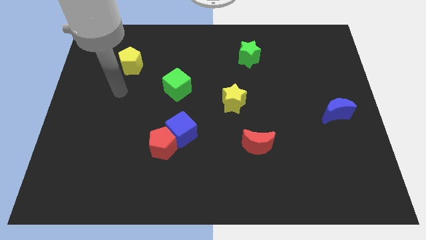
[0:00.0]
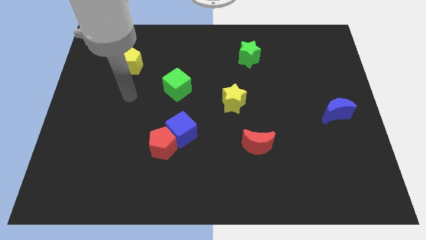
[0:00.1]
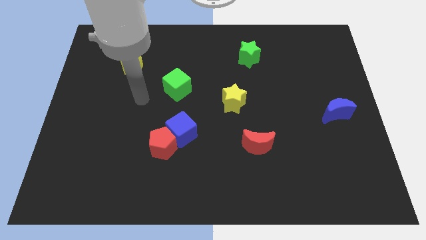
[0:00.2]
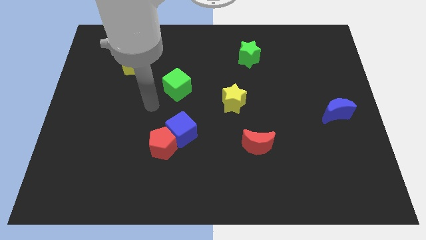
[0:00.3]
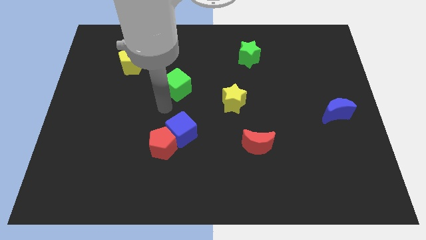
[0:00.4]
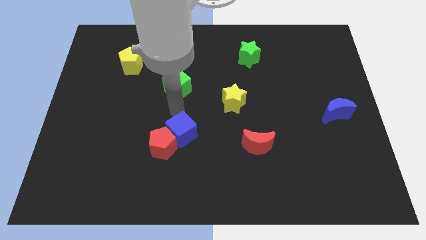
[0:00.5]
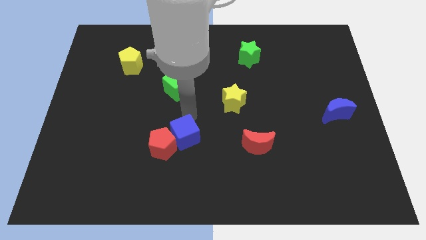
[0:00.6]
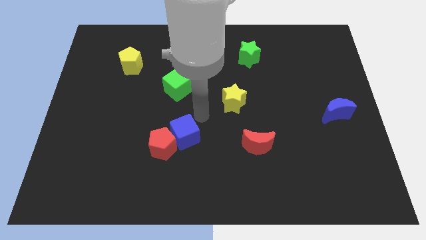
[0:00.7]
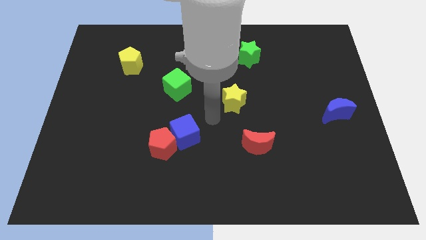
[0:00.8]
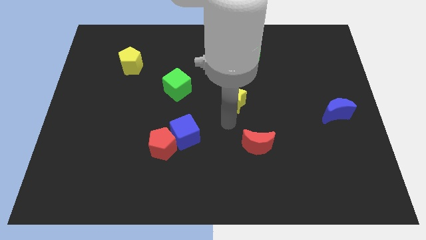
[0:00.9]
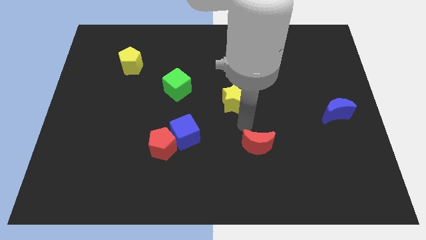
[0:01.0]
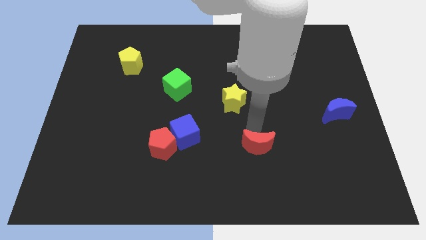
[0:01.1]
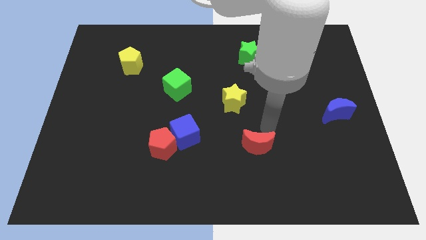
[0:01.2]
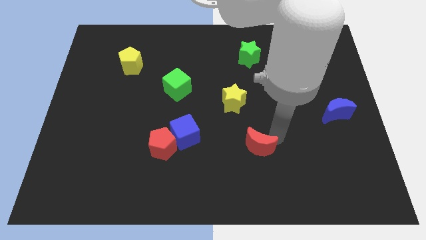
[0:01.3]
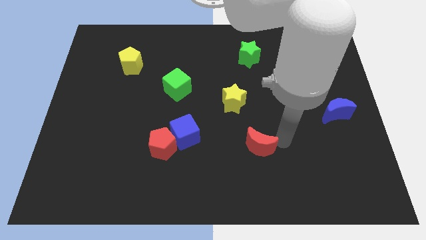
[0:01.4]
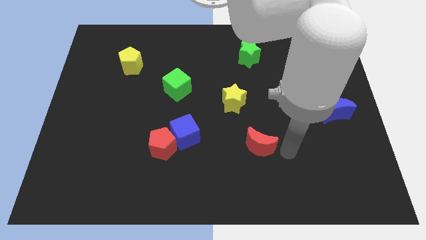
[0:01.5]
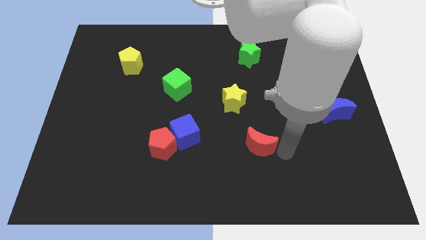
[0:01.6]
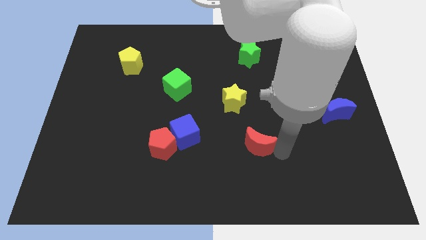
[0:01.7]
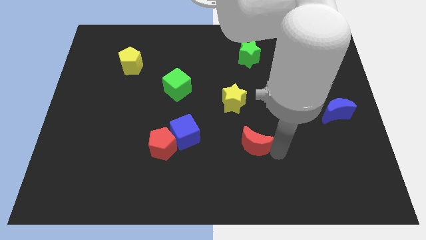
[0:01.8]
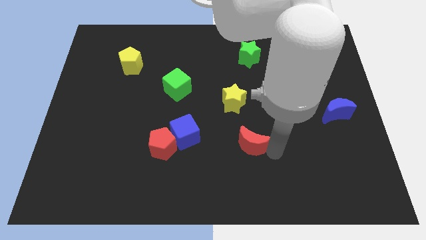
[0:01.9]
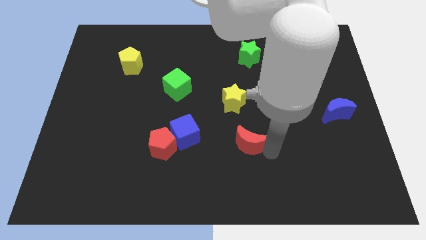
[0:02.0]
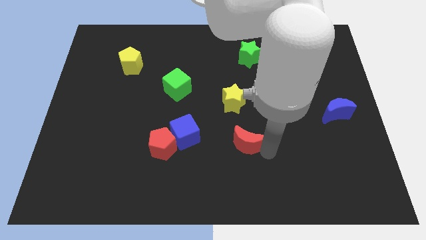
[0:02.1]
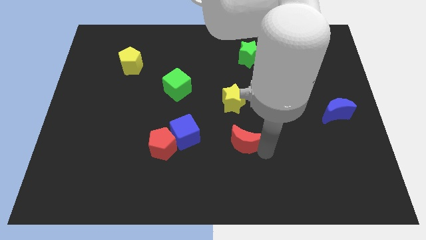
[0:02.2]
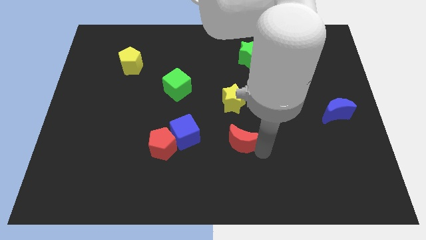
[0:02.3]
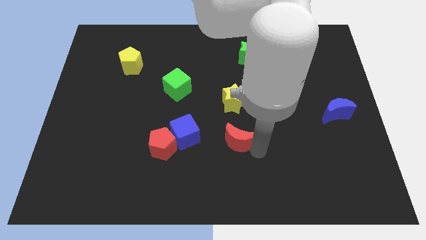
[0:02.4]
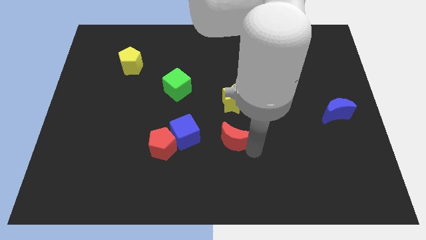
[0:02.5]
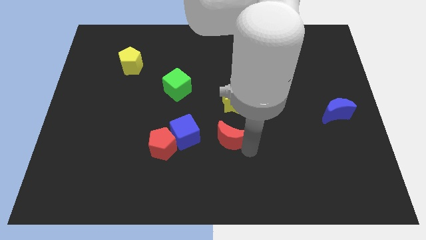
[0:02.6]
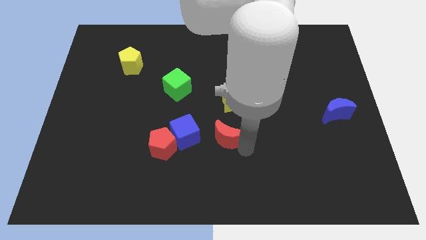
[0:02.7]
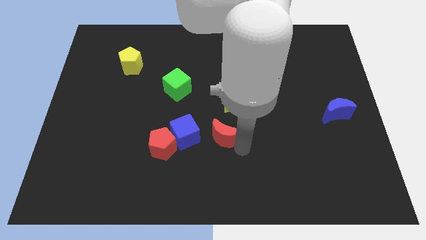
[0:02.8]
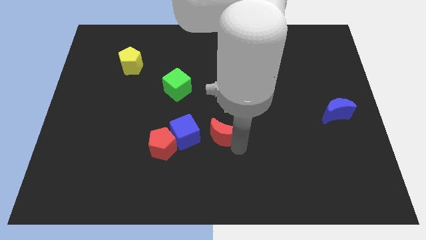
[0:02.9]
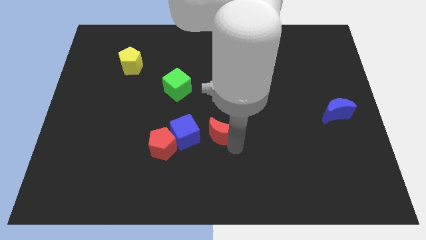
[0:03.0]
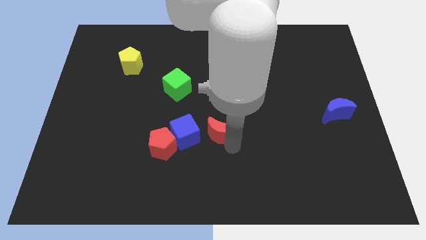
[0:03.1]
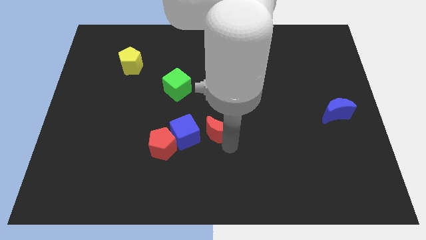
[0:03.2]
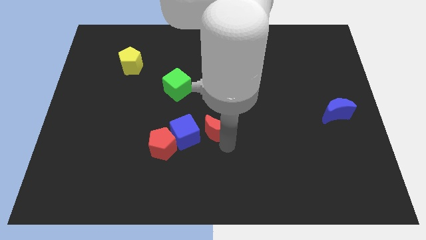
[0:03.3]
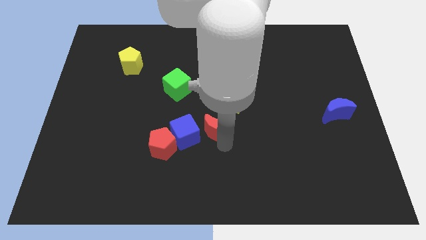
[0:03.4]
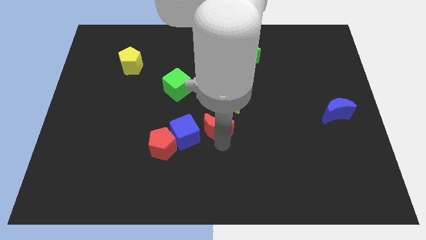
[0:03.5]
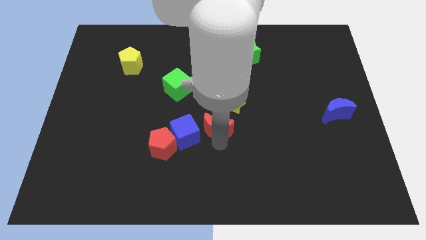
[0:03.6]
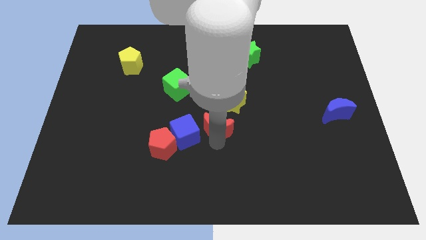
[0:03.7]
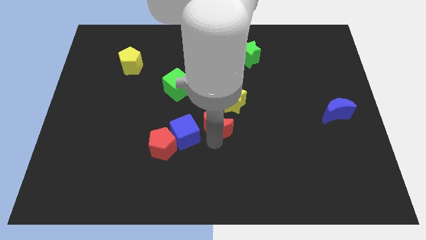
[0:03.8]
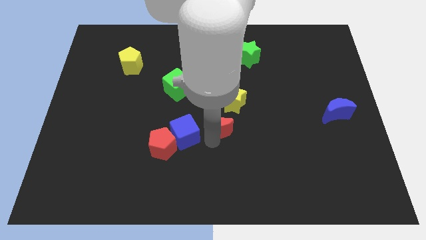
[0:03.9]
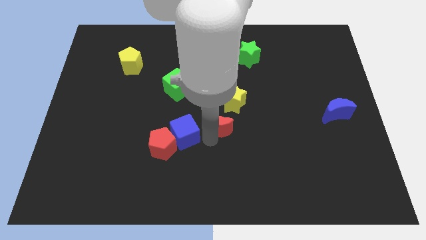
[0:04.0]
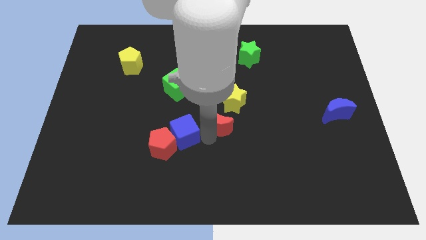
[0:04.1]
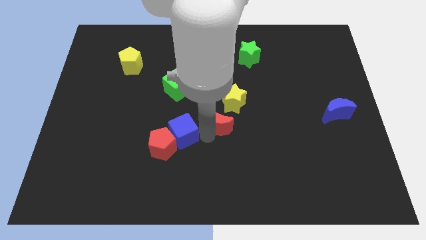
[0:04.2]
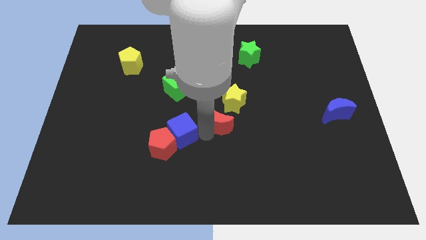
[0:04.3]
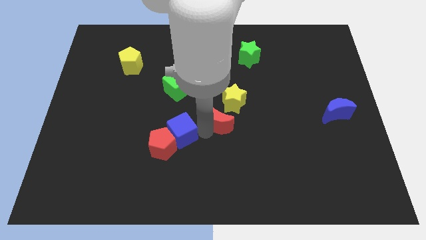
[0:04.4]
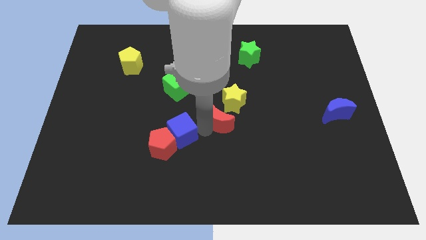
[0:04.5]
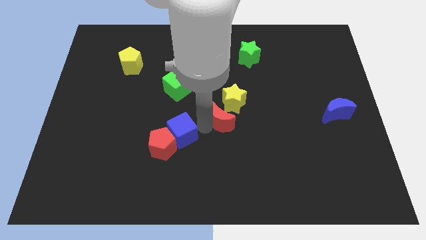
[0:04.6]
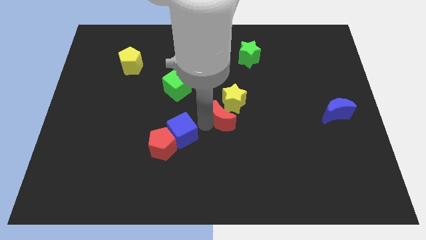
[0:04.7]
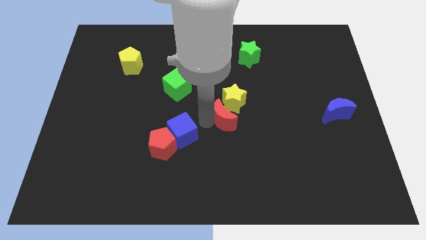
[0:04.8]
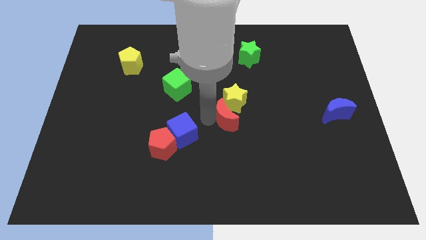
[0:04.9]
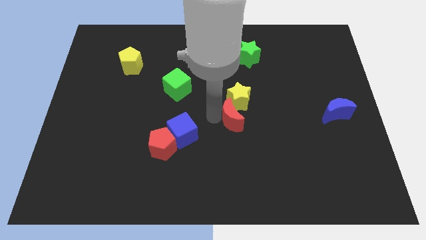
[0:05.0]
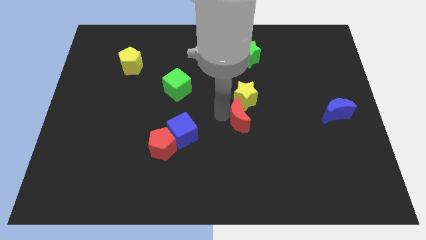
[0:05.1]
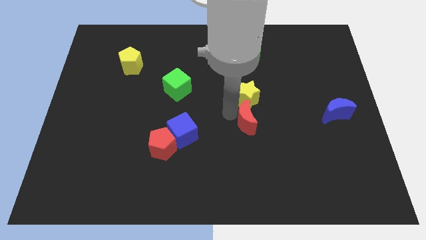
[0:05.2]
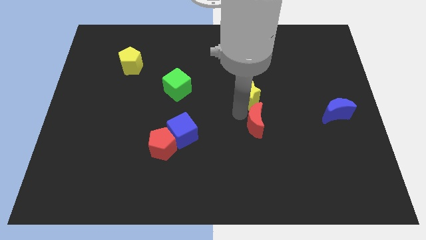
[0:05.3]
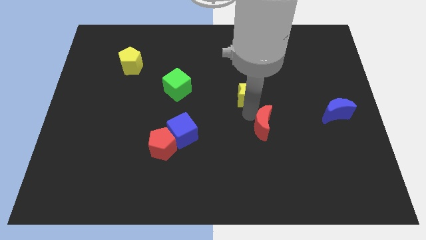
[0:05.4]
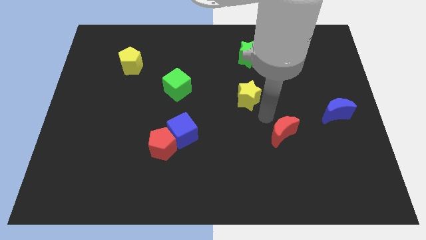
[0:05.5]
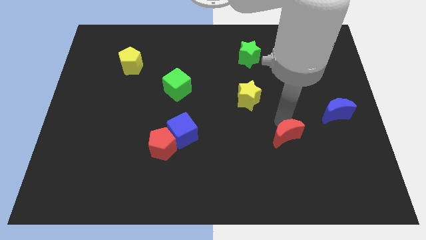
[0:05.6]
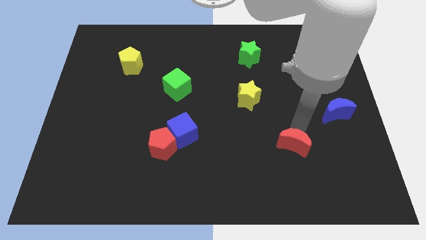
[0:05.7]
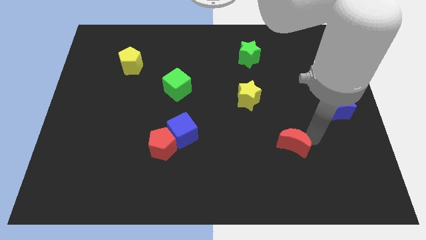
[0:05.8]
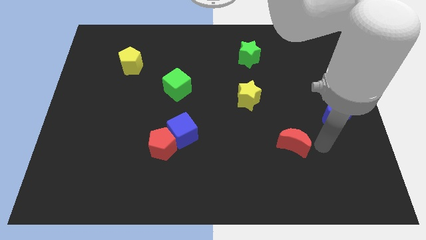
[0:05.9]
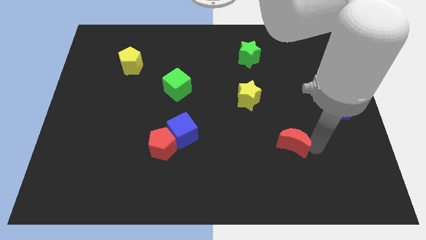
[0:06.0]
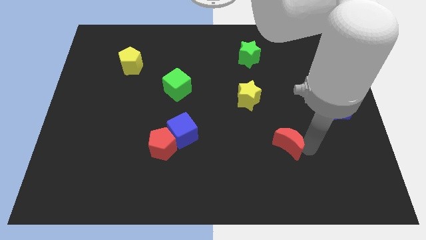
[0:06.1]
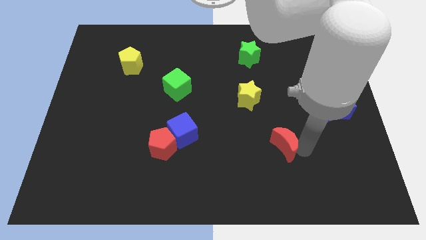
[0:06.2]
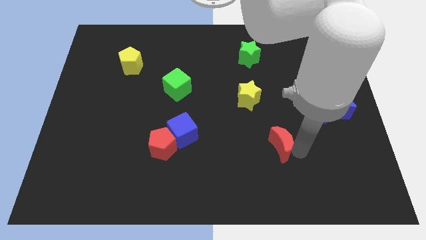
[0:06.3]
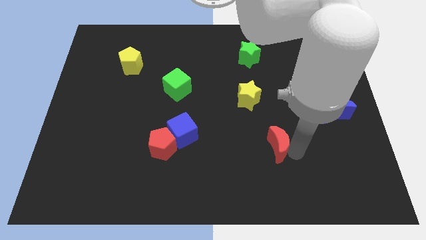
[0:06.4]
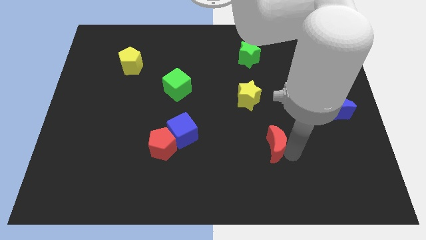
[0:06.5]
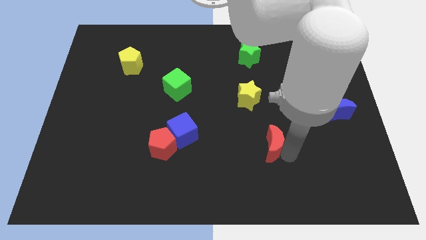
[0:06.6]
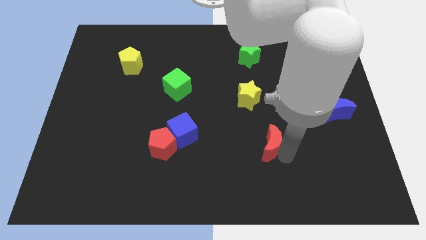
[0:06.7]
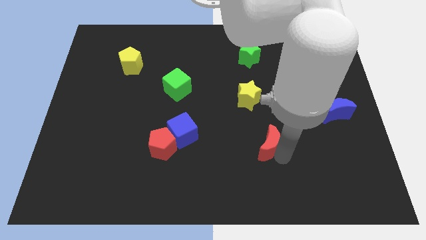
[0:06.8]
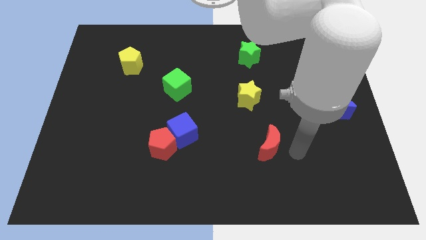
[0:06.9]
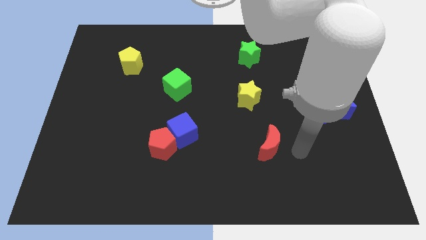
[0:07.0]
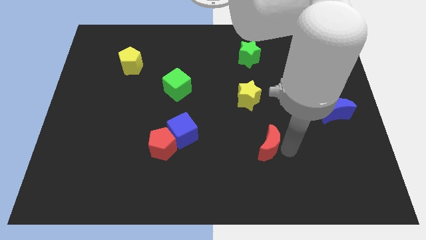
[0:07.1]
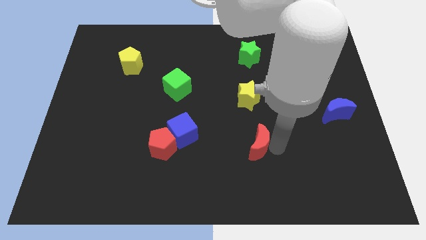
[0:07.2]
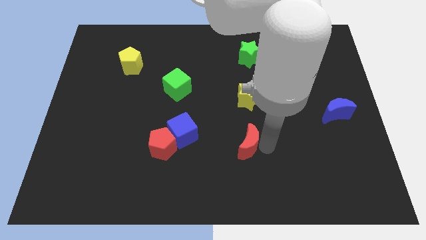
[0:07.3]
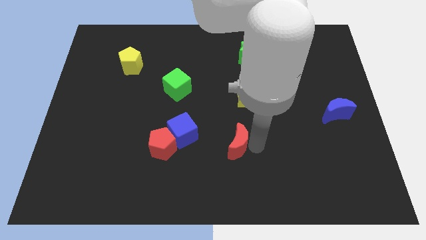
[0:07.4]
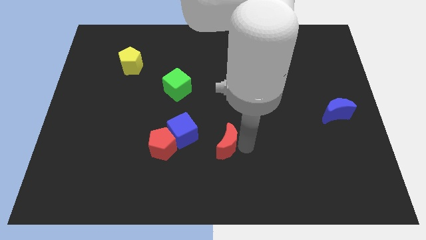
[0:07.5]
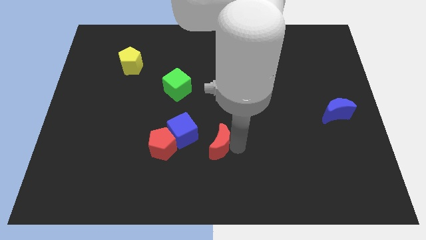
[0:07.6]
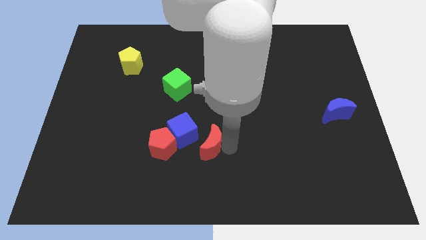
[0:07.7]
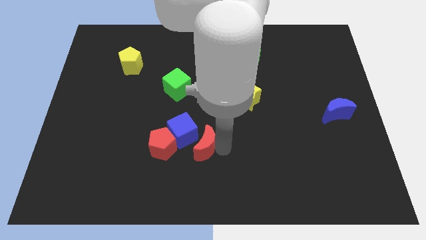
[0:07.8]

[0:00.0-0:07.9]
slide the red moon next to the blue cube
